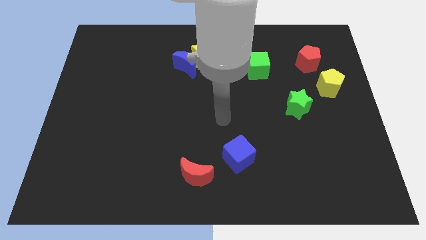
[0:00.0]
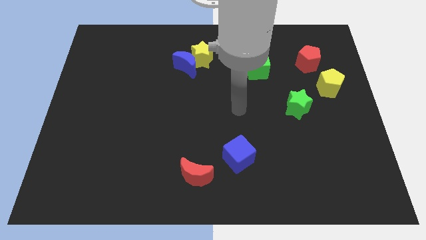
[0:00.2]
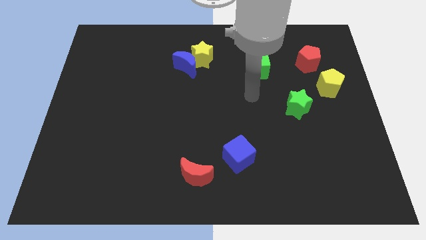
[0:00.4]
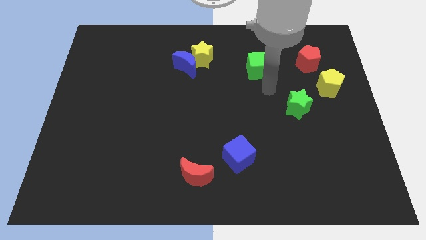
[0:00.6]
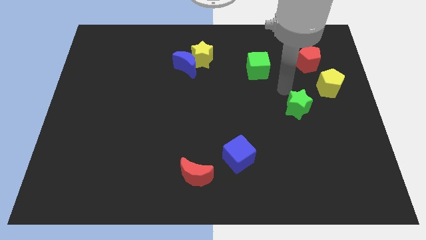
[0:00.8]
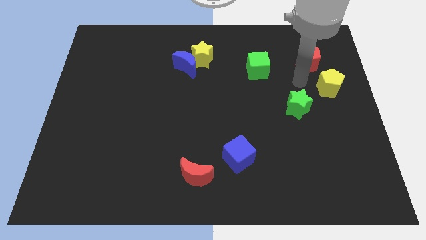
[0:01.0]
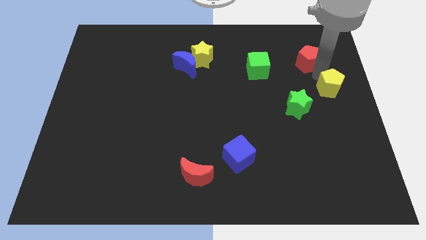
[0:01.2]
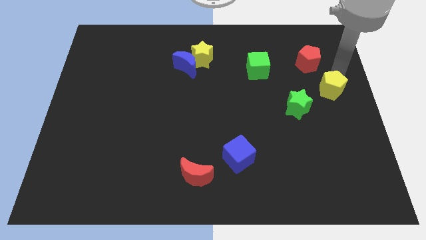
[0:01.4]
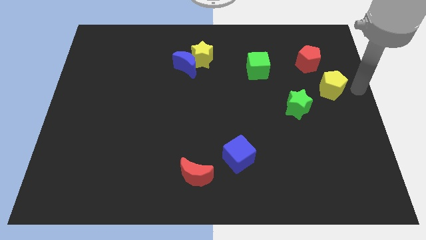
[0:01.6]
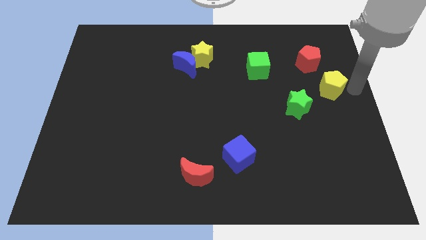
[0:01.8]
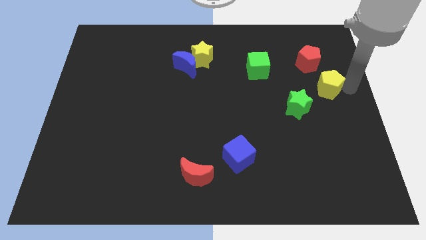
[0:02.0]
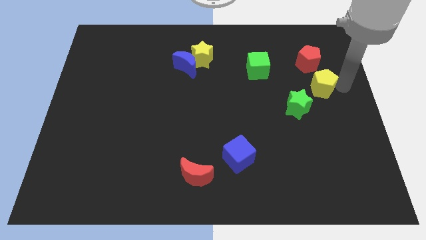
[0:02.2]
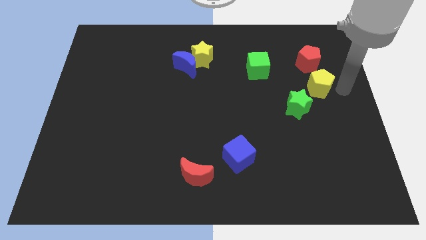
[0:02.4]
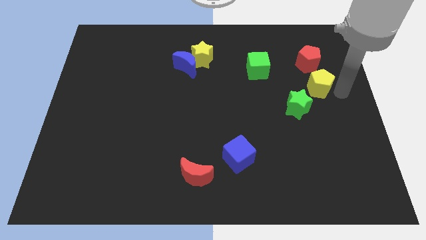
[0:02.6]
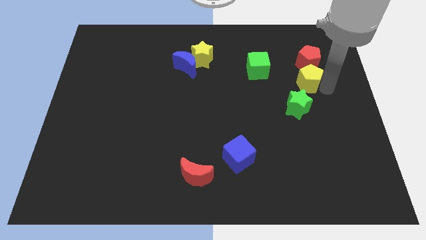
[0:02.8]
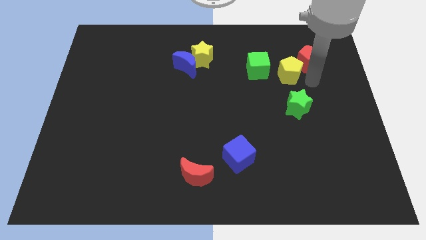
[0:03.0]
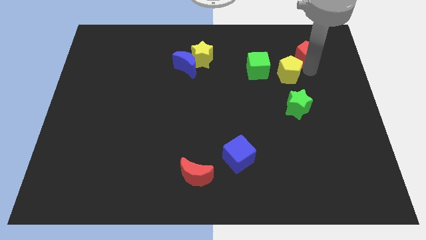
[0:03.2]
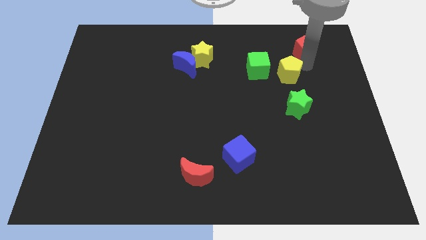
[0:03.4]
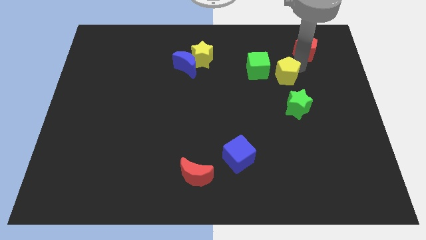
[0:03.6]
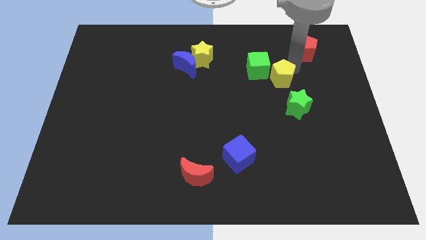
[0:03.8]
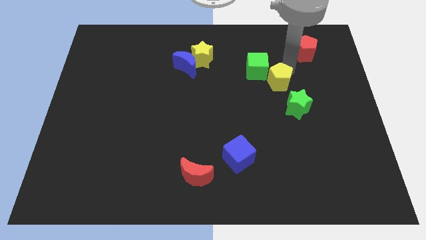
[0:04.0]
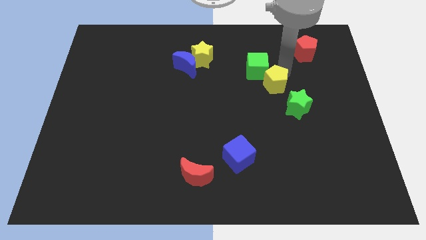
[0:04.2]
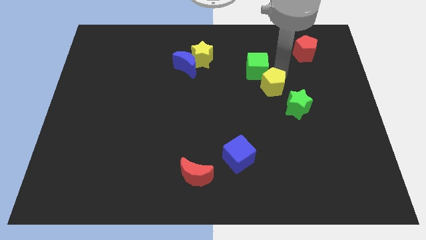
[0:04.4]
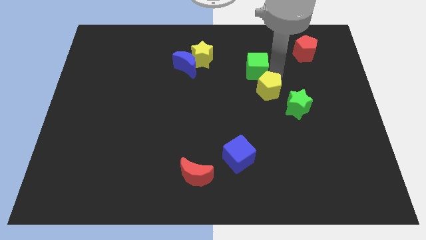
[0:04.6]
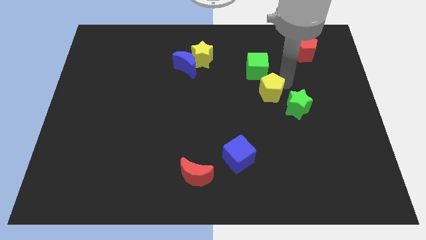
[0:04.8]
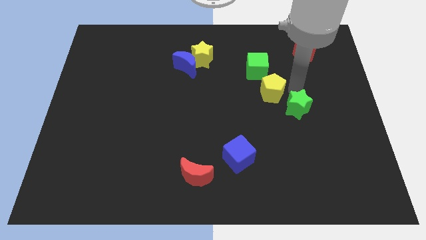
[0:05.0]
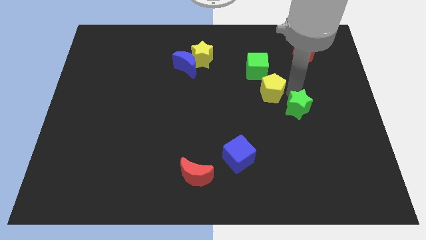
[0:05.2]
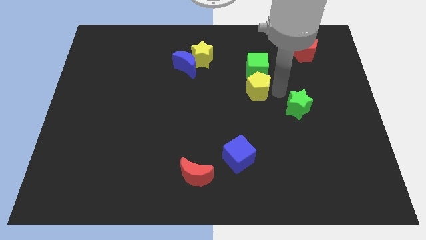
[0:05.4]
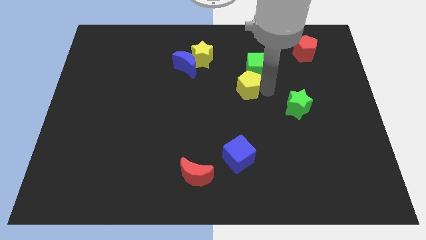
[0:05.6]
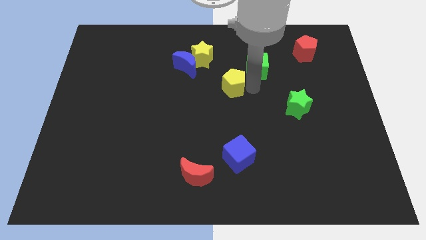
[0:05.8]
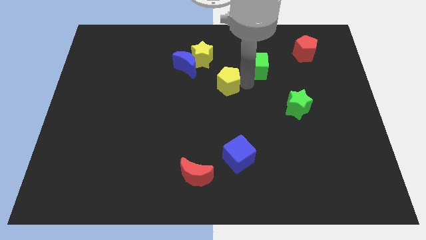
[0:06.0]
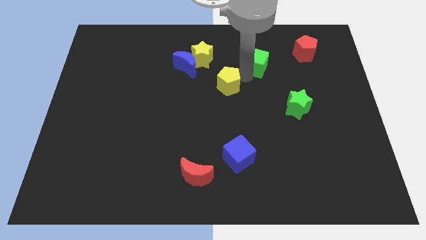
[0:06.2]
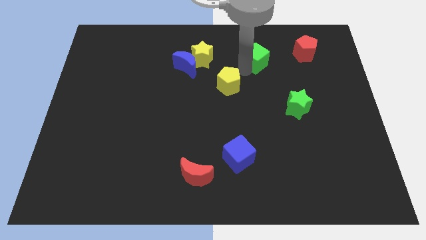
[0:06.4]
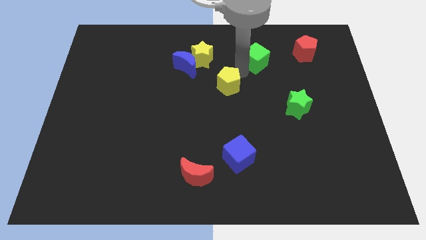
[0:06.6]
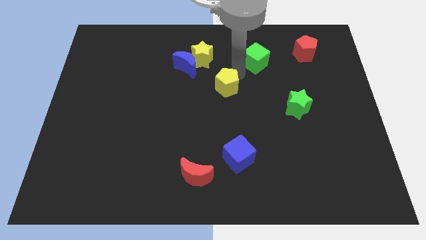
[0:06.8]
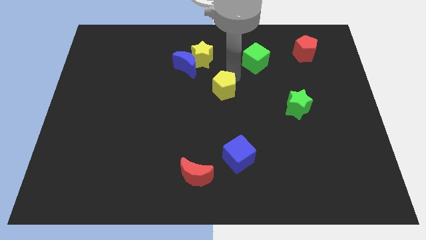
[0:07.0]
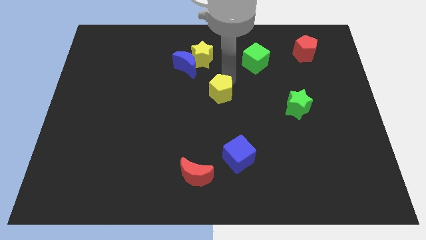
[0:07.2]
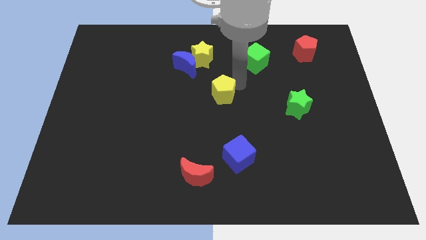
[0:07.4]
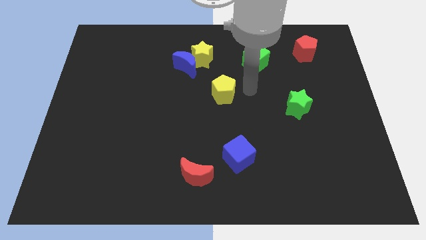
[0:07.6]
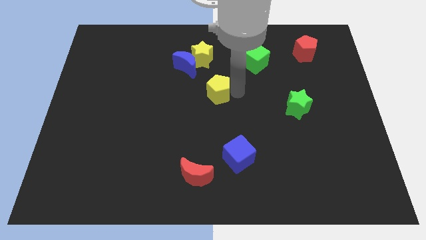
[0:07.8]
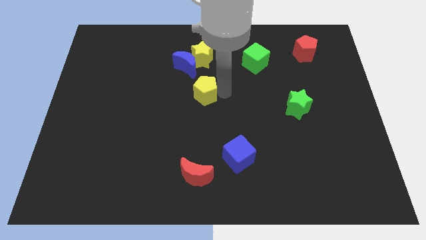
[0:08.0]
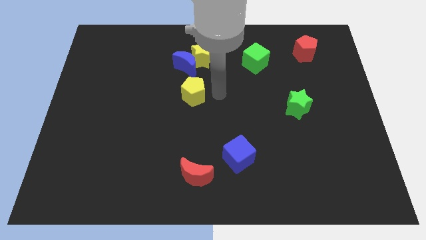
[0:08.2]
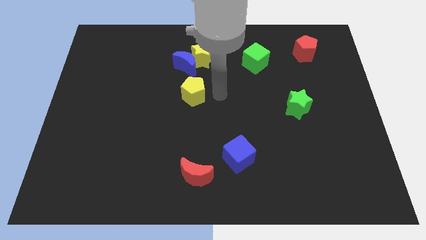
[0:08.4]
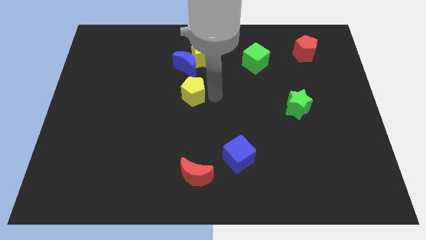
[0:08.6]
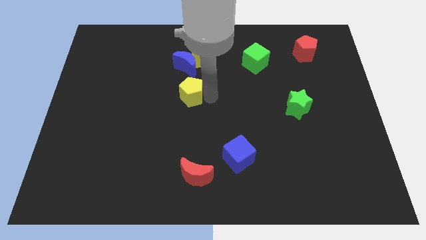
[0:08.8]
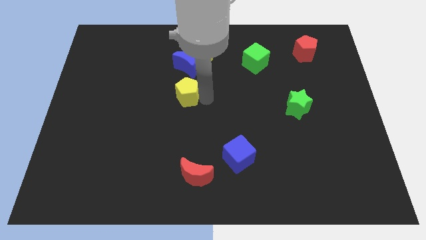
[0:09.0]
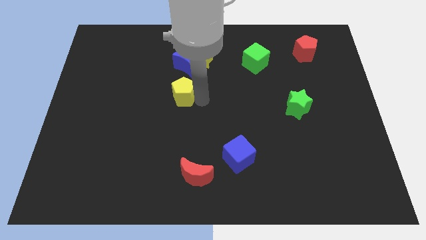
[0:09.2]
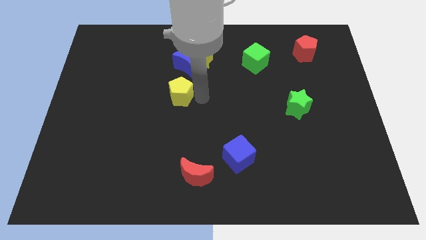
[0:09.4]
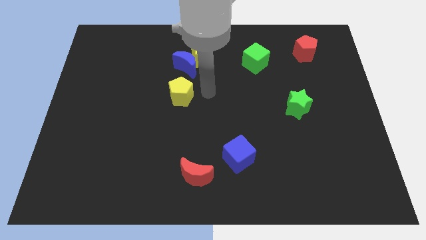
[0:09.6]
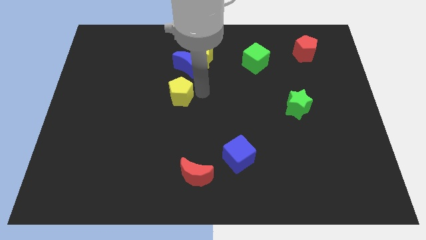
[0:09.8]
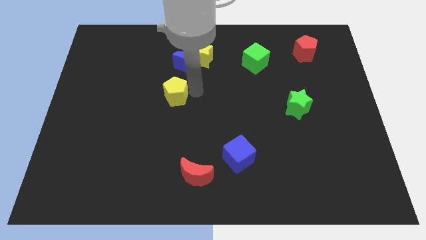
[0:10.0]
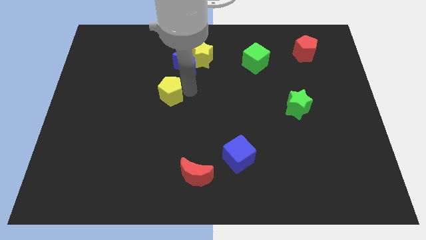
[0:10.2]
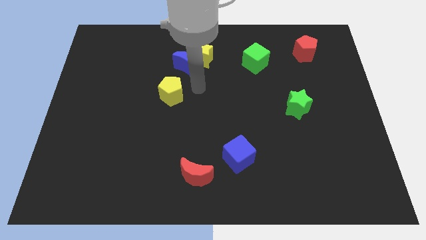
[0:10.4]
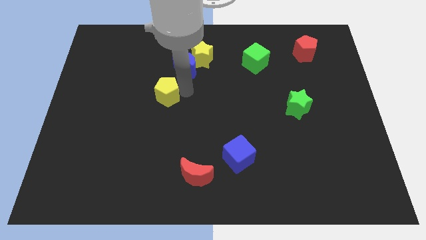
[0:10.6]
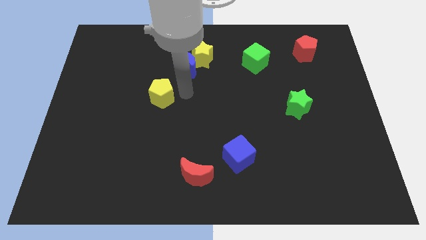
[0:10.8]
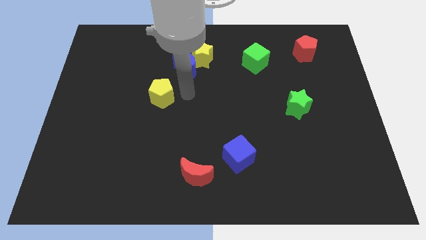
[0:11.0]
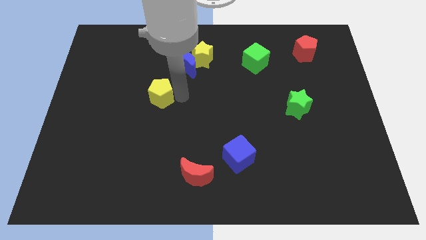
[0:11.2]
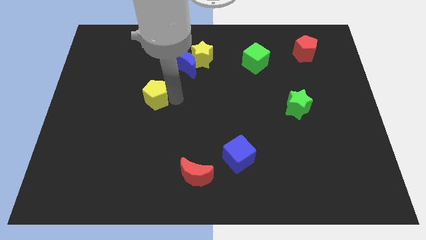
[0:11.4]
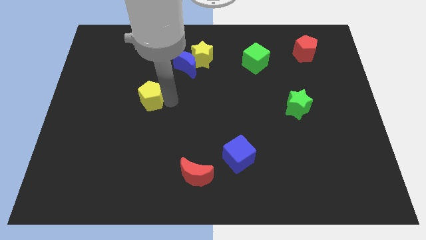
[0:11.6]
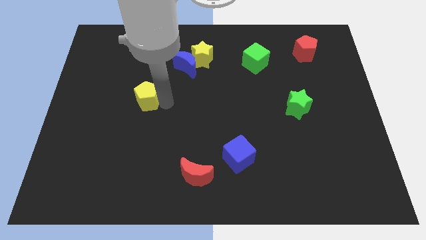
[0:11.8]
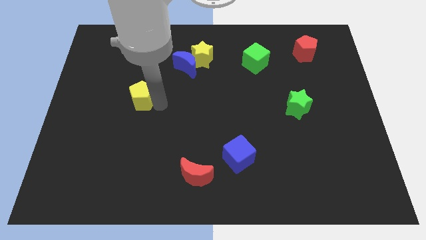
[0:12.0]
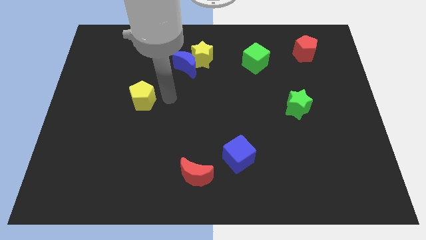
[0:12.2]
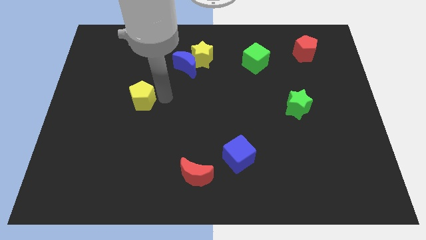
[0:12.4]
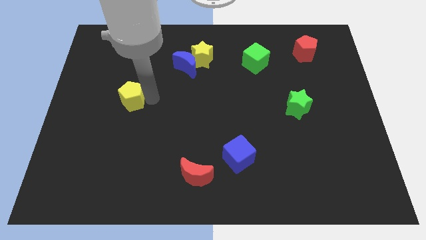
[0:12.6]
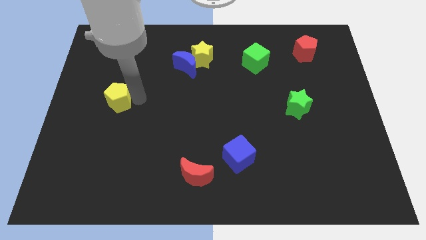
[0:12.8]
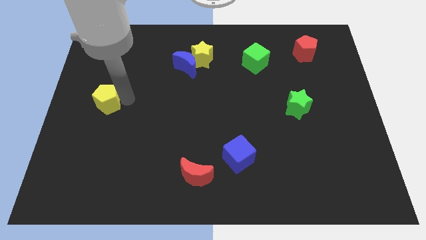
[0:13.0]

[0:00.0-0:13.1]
push the yellow pentagon to the left side of the board
